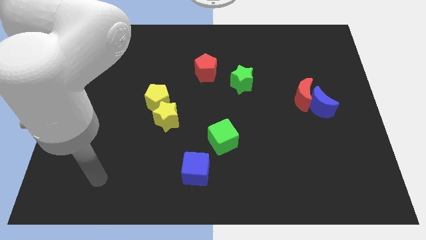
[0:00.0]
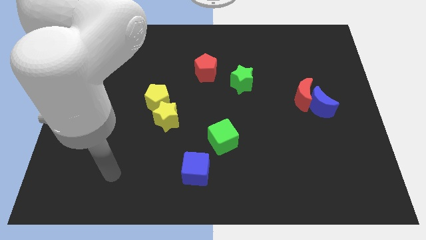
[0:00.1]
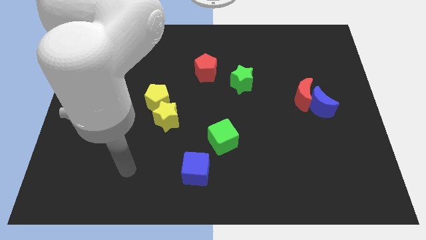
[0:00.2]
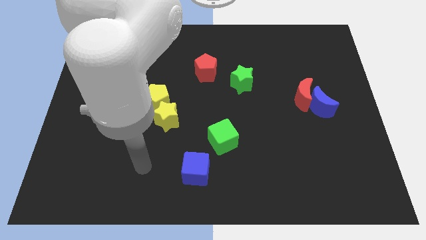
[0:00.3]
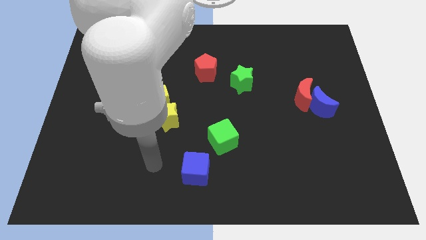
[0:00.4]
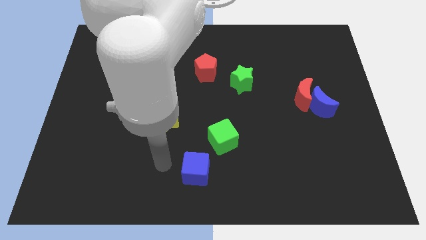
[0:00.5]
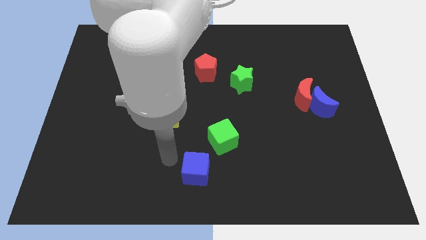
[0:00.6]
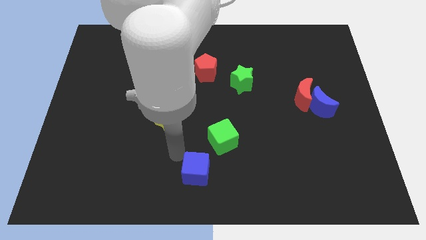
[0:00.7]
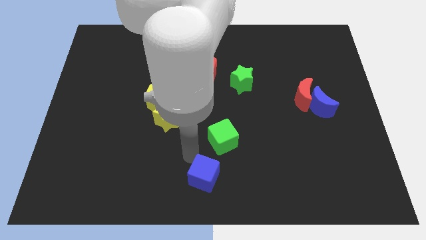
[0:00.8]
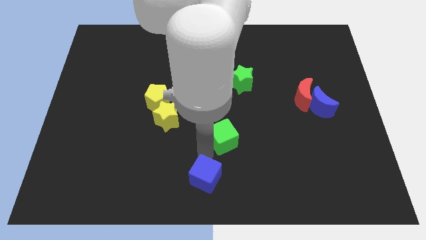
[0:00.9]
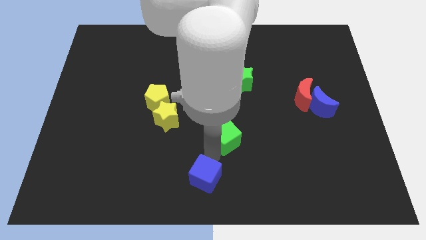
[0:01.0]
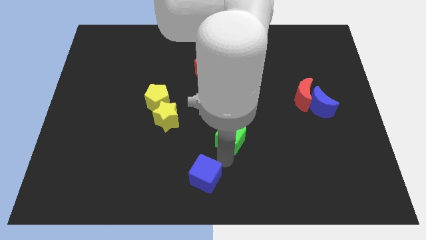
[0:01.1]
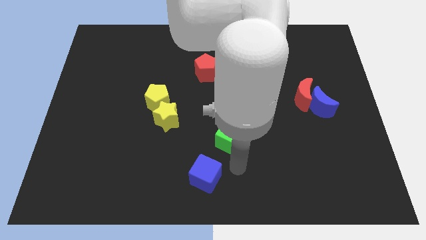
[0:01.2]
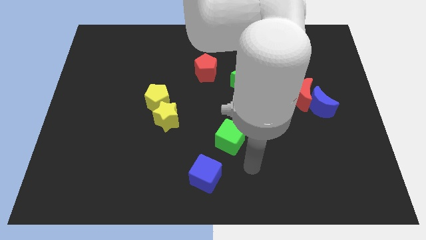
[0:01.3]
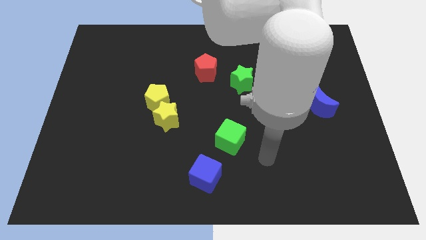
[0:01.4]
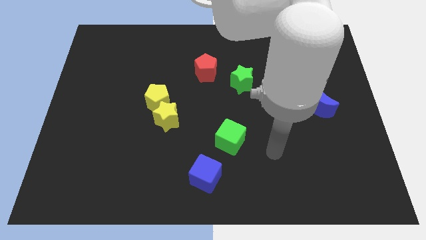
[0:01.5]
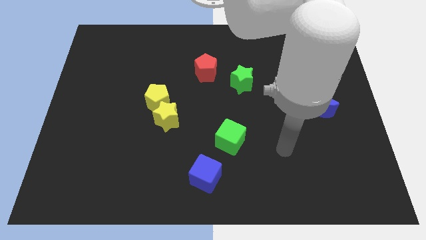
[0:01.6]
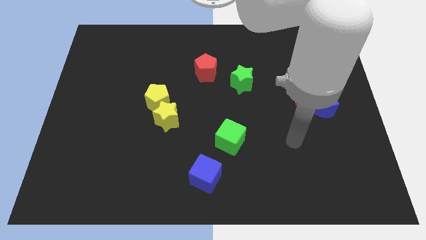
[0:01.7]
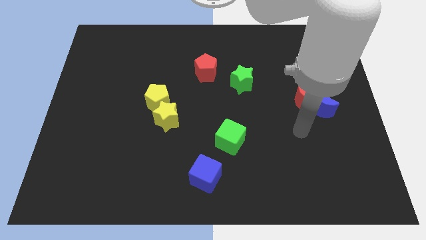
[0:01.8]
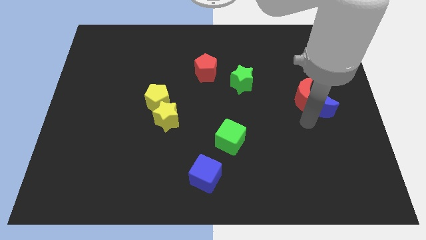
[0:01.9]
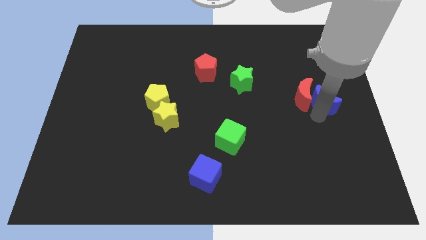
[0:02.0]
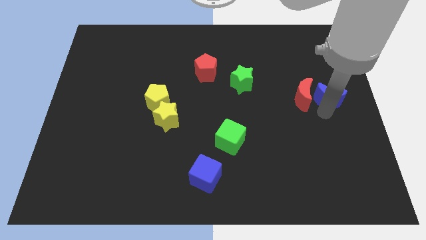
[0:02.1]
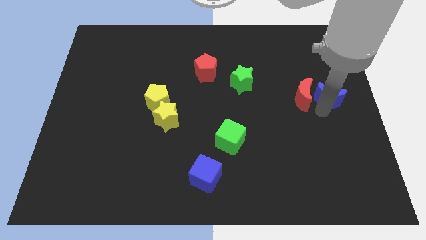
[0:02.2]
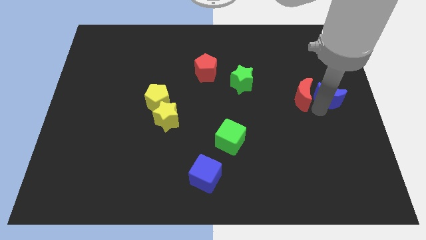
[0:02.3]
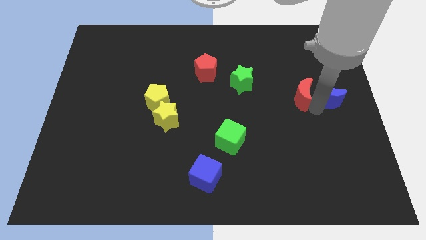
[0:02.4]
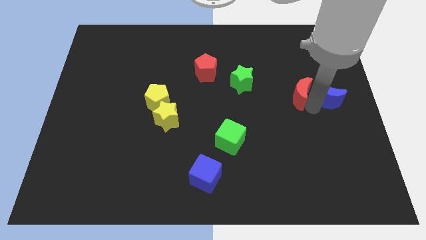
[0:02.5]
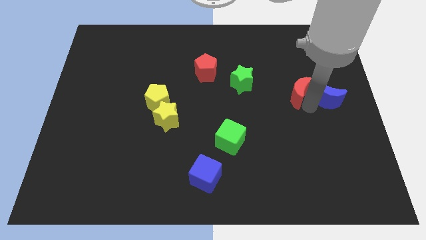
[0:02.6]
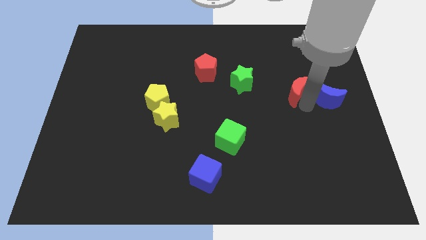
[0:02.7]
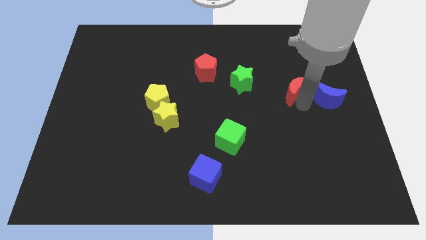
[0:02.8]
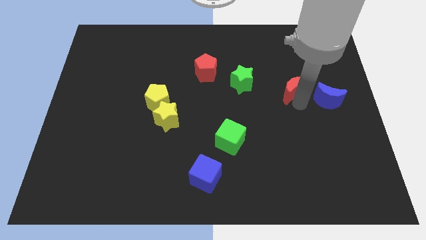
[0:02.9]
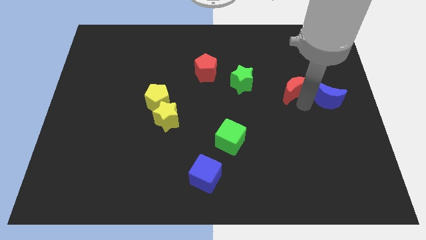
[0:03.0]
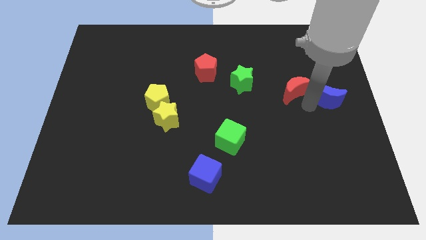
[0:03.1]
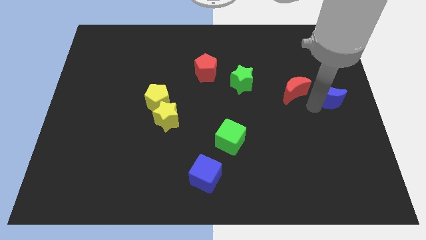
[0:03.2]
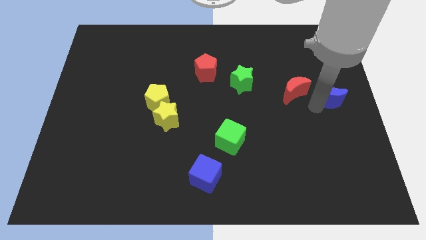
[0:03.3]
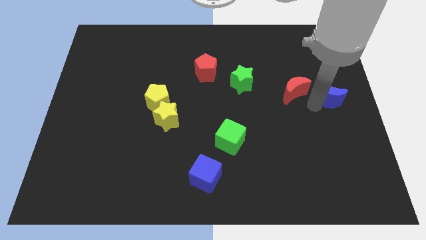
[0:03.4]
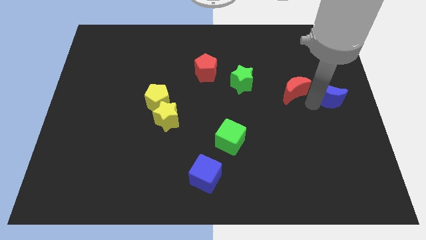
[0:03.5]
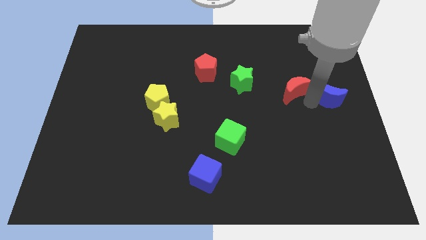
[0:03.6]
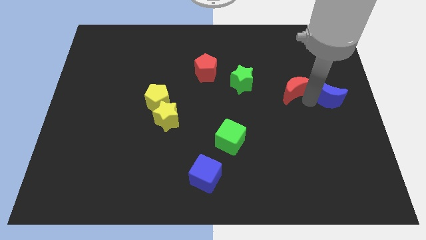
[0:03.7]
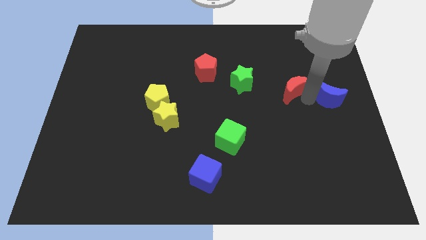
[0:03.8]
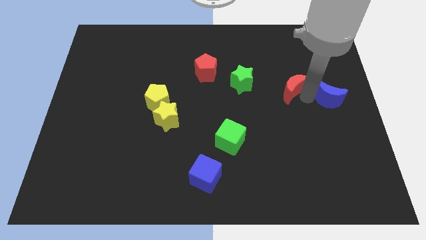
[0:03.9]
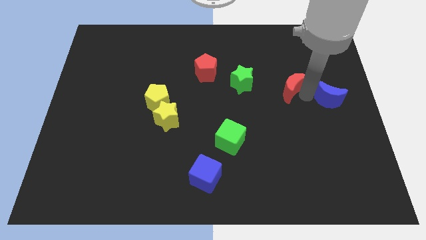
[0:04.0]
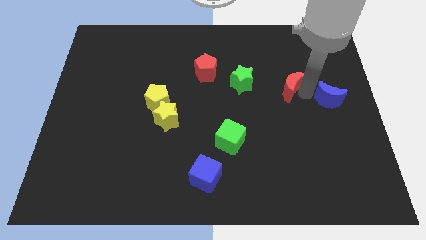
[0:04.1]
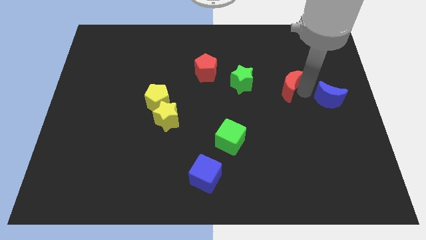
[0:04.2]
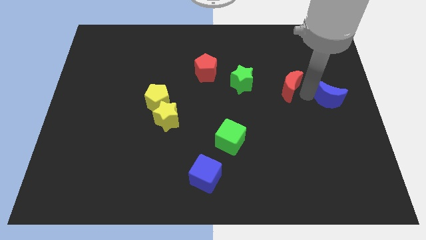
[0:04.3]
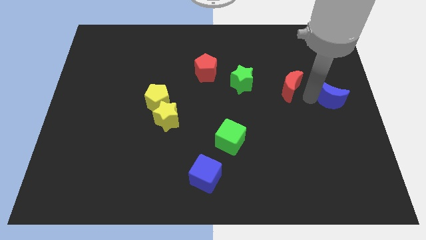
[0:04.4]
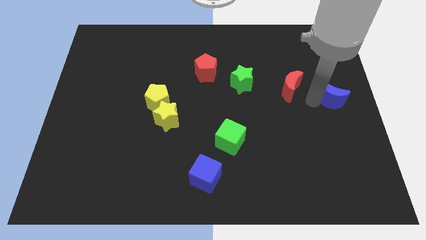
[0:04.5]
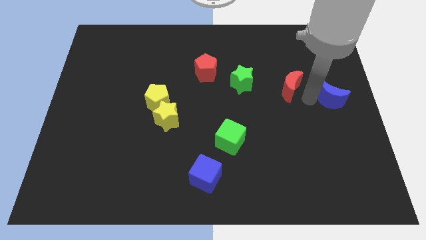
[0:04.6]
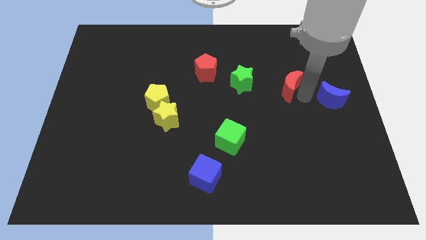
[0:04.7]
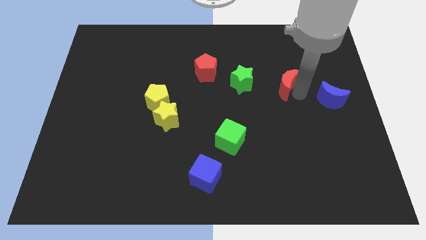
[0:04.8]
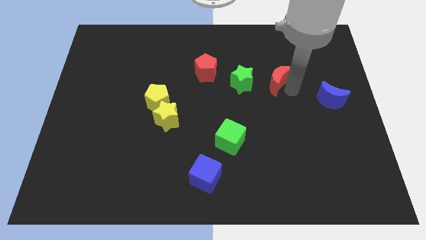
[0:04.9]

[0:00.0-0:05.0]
slightly slide the red moon diagonally up and to the left

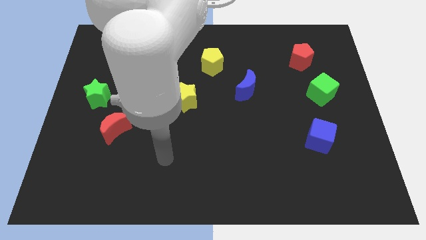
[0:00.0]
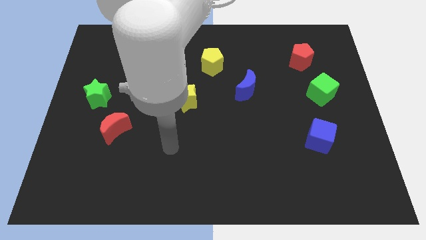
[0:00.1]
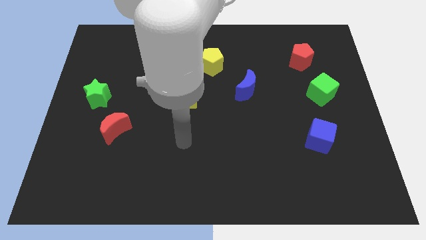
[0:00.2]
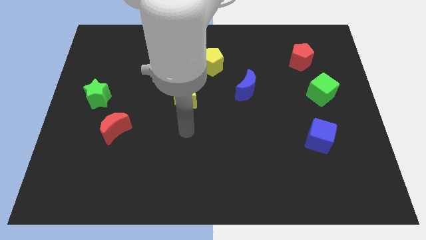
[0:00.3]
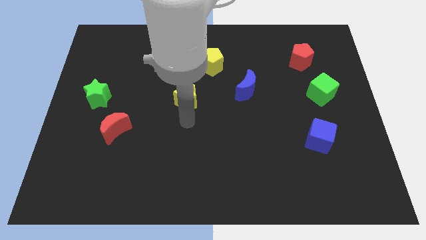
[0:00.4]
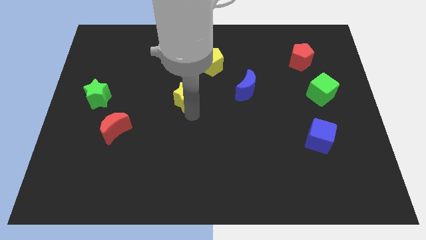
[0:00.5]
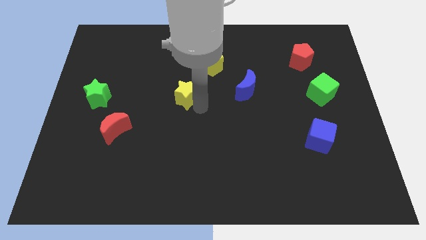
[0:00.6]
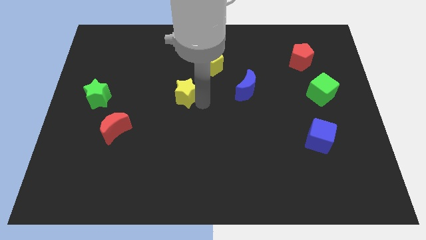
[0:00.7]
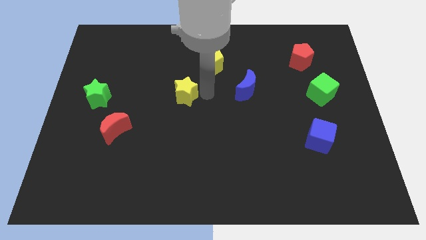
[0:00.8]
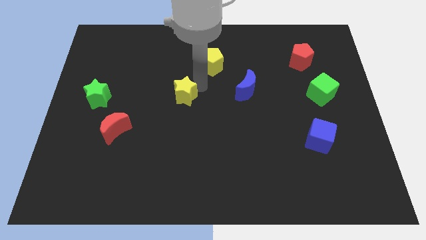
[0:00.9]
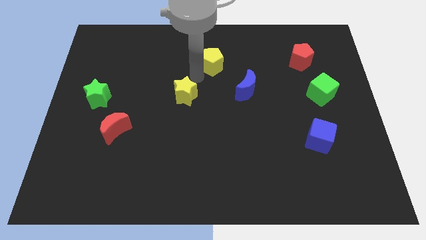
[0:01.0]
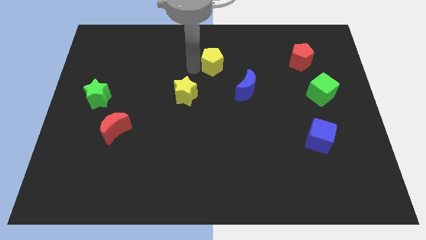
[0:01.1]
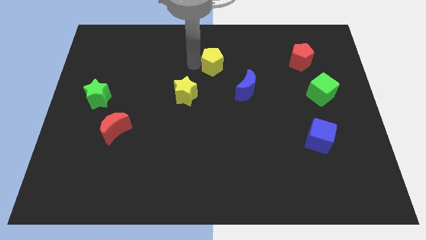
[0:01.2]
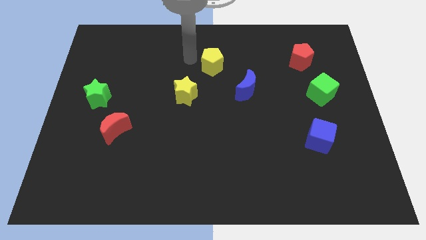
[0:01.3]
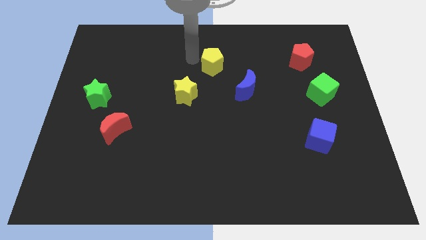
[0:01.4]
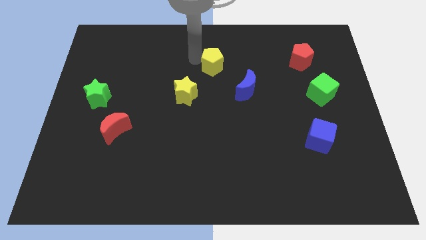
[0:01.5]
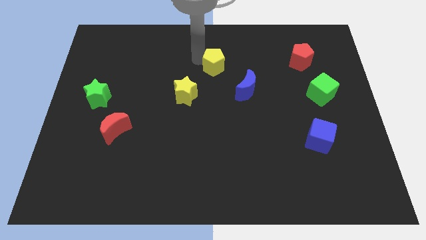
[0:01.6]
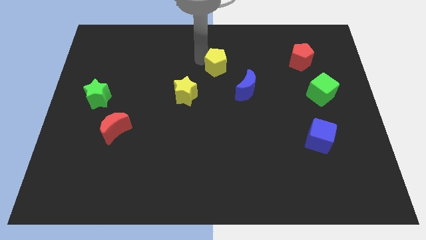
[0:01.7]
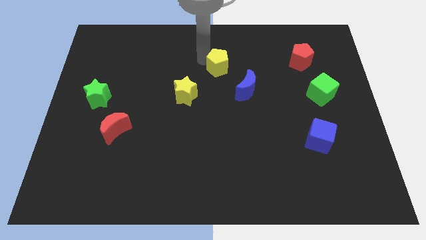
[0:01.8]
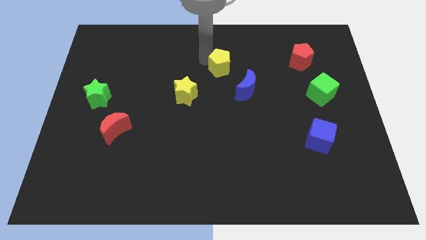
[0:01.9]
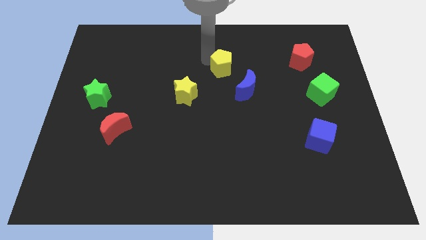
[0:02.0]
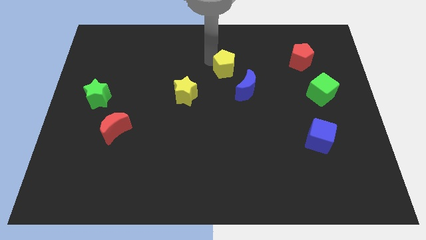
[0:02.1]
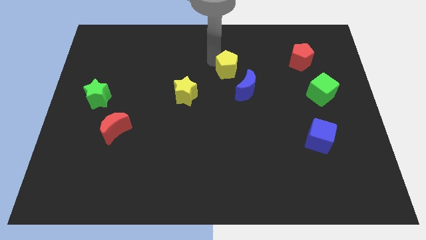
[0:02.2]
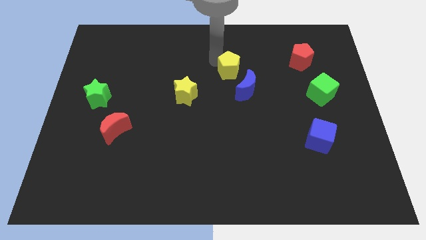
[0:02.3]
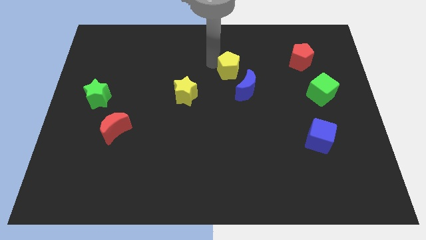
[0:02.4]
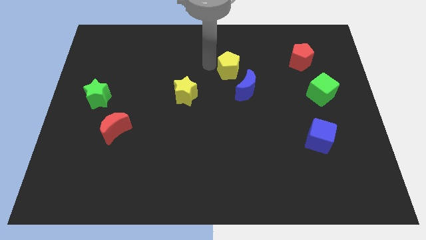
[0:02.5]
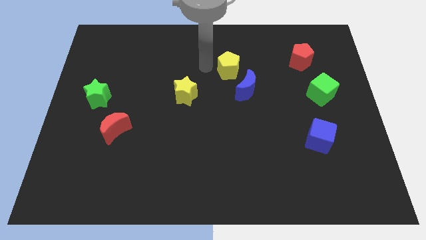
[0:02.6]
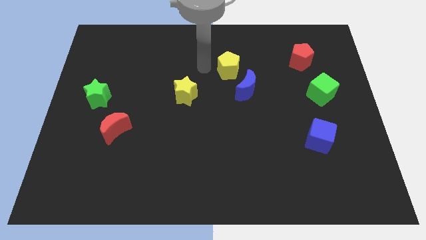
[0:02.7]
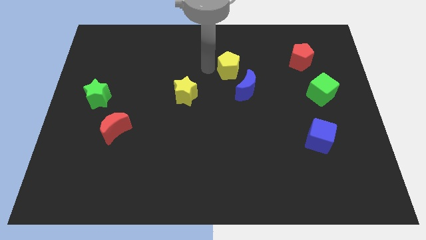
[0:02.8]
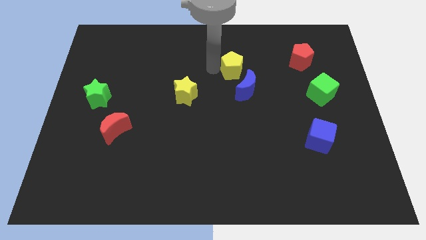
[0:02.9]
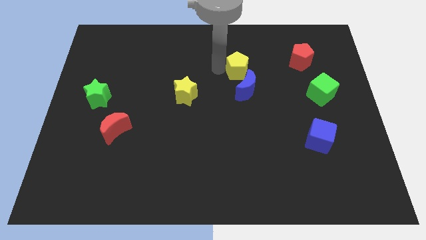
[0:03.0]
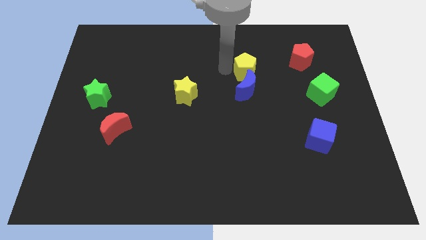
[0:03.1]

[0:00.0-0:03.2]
push the yellow pentagon a bit to the right

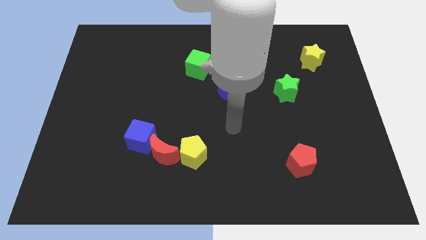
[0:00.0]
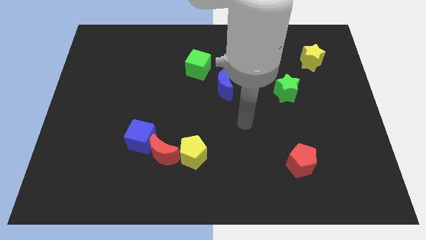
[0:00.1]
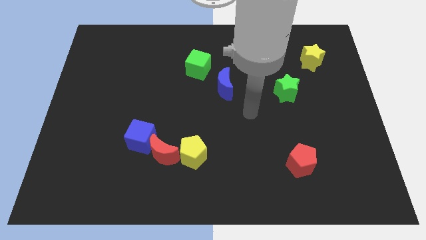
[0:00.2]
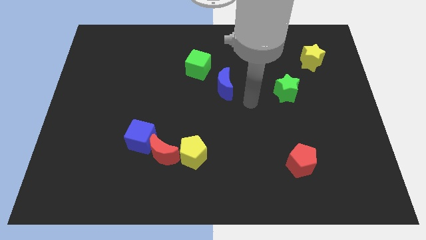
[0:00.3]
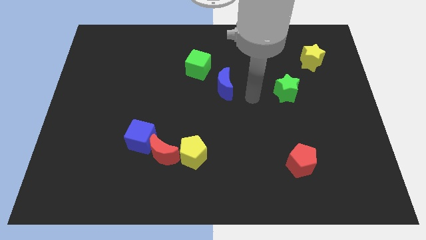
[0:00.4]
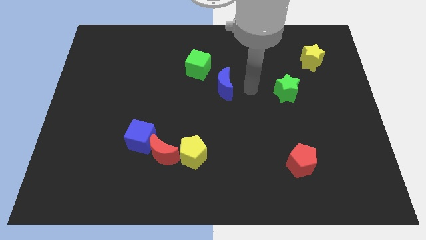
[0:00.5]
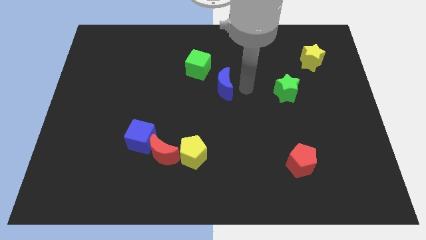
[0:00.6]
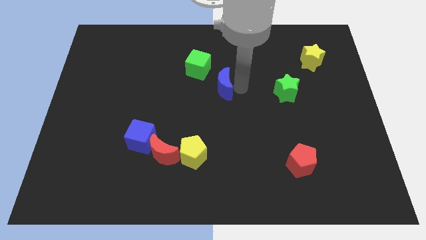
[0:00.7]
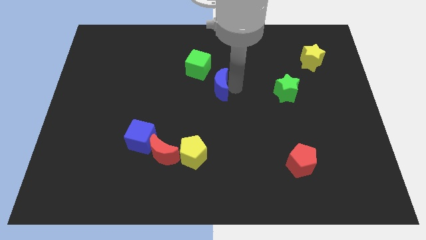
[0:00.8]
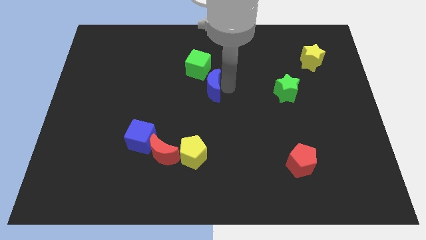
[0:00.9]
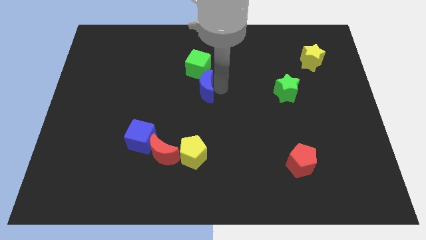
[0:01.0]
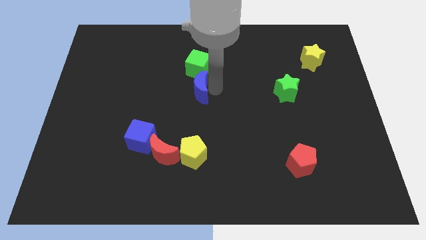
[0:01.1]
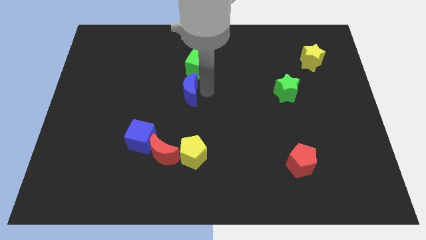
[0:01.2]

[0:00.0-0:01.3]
move the blue moon left a little bit
